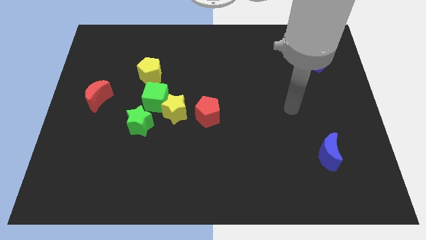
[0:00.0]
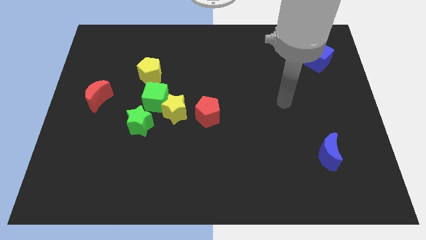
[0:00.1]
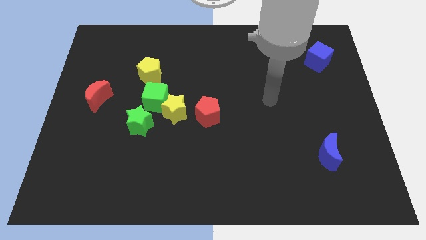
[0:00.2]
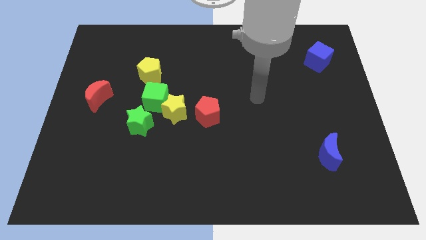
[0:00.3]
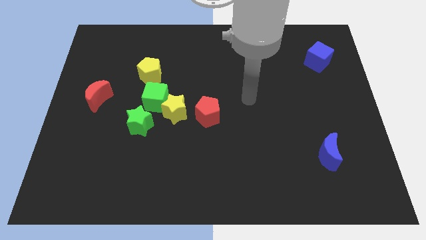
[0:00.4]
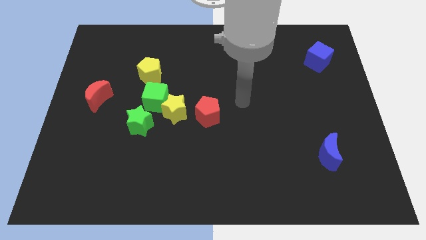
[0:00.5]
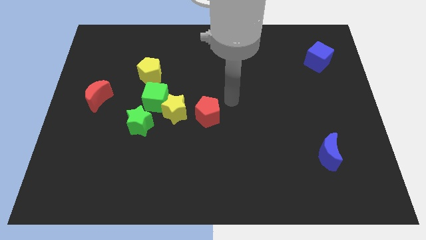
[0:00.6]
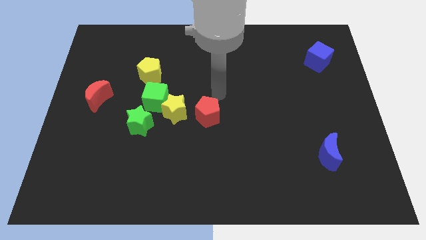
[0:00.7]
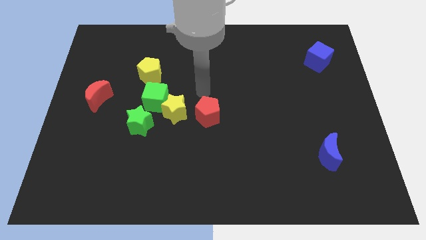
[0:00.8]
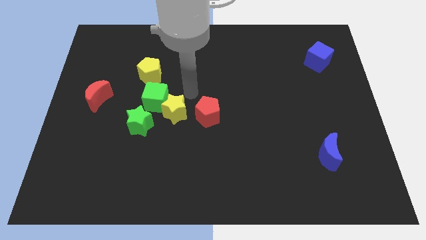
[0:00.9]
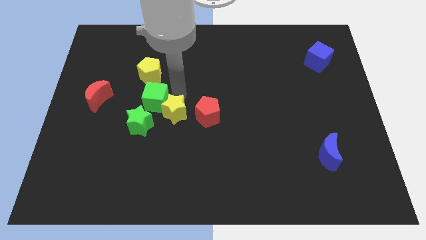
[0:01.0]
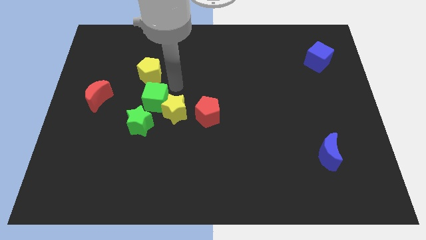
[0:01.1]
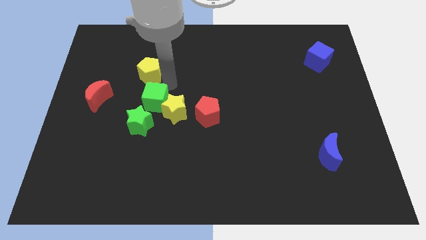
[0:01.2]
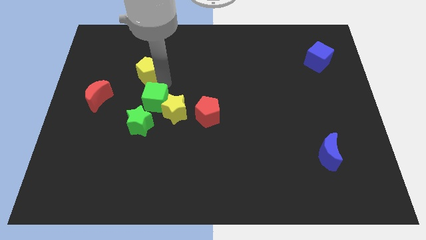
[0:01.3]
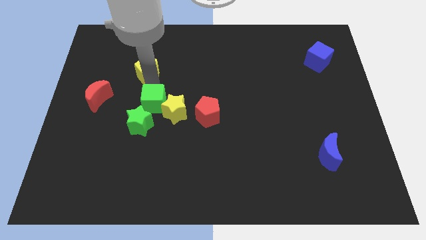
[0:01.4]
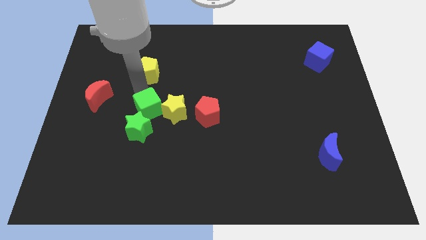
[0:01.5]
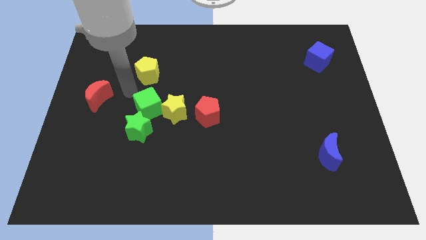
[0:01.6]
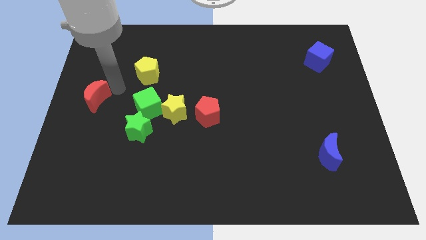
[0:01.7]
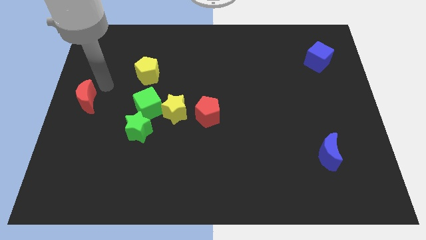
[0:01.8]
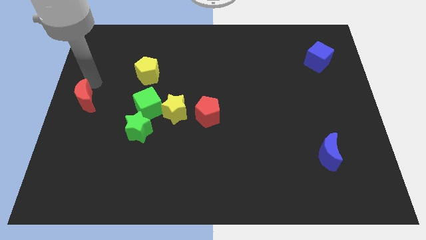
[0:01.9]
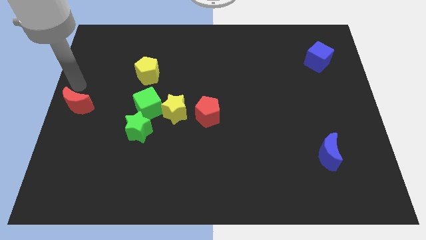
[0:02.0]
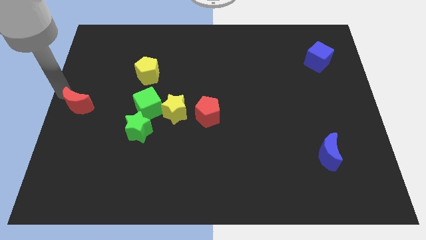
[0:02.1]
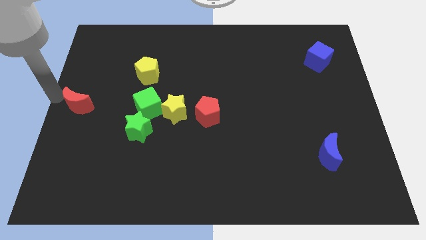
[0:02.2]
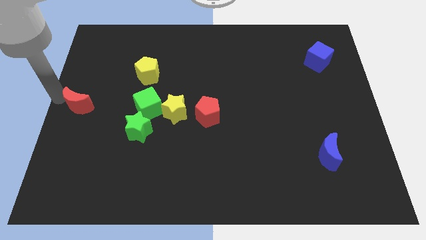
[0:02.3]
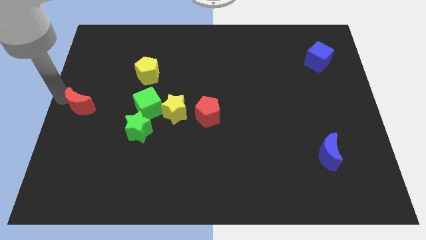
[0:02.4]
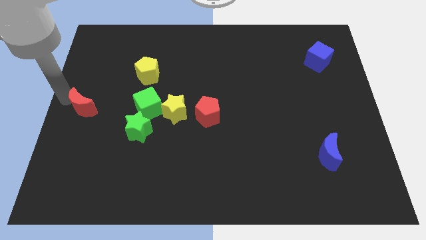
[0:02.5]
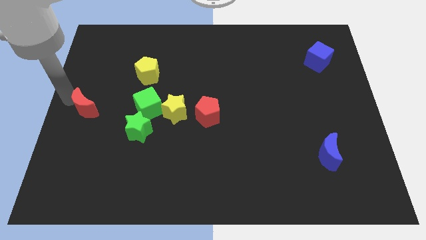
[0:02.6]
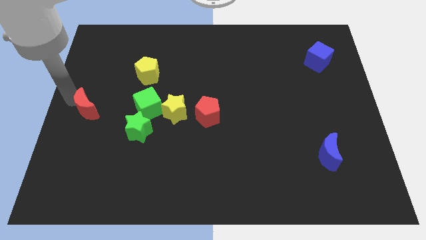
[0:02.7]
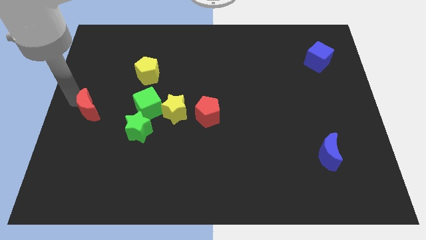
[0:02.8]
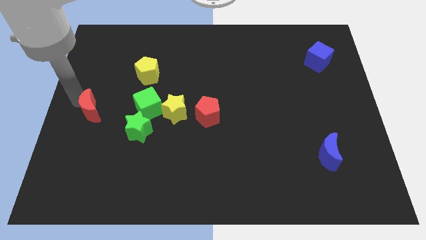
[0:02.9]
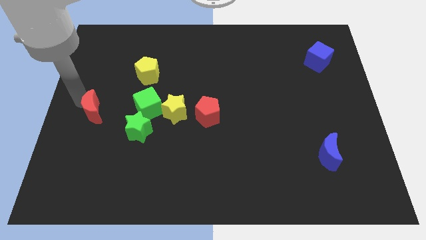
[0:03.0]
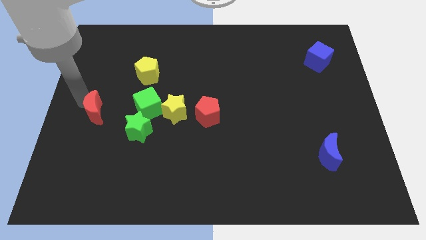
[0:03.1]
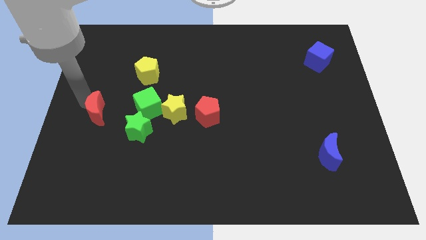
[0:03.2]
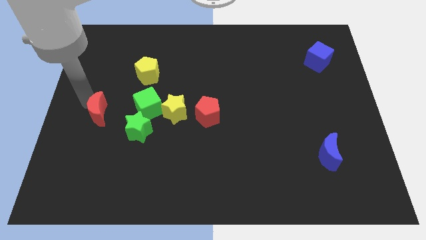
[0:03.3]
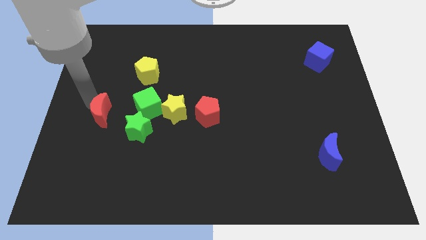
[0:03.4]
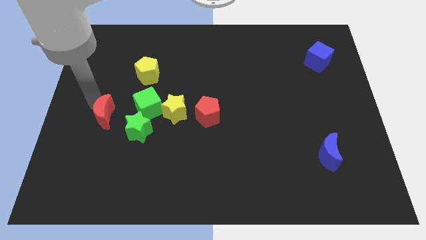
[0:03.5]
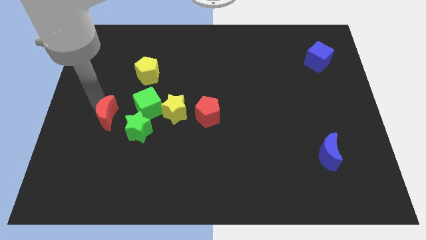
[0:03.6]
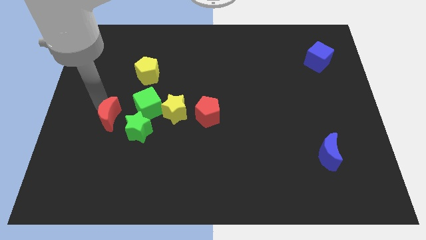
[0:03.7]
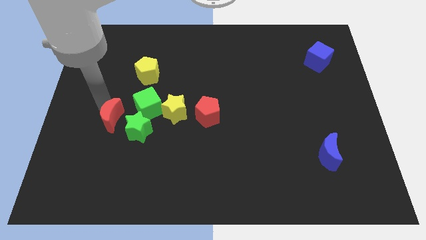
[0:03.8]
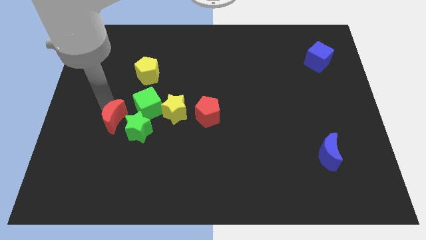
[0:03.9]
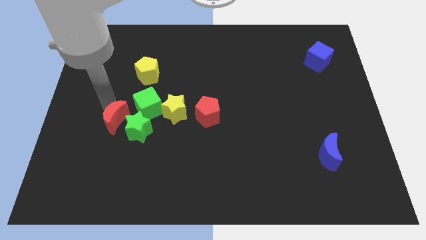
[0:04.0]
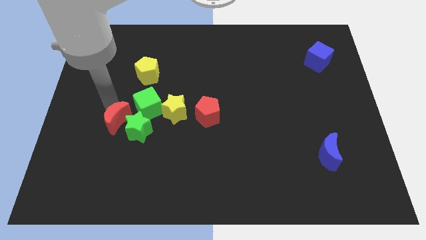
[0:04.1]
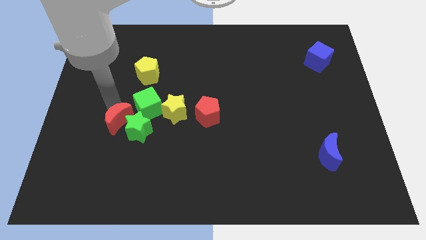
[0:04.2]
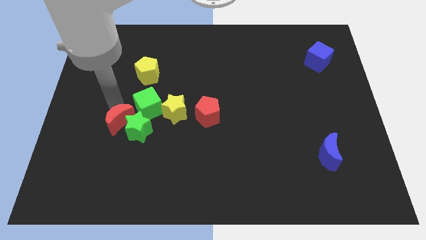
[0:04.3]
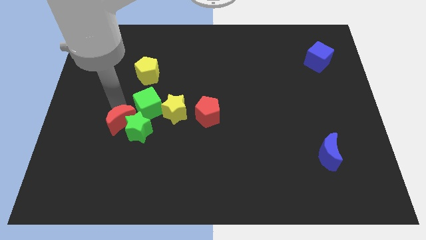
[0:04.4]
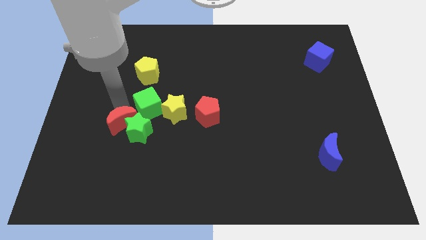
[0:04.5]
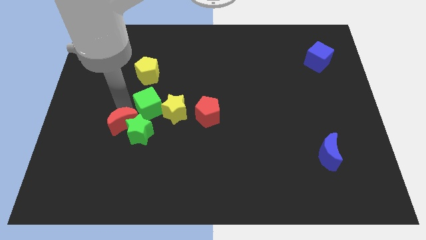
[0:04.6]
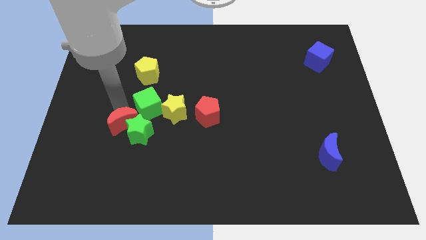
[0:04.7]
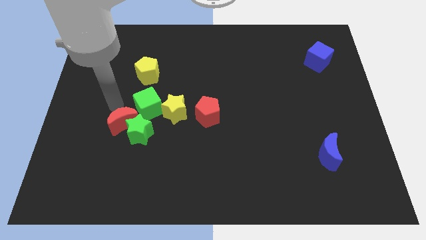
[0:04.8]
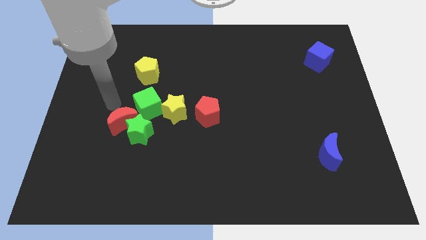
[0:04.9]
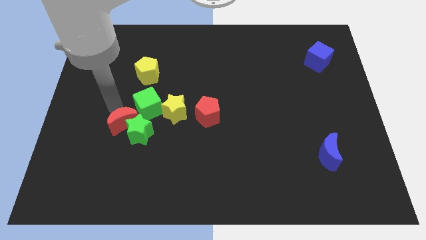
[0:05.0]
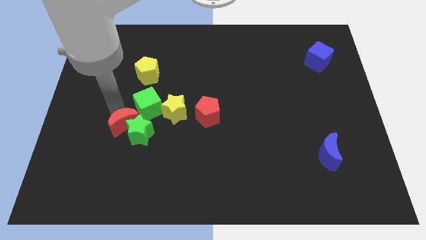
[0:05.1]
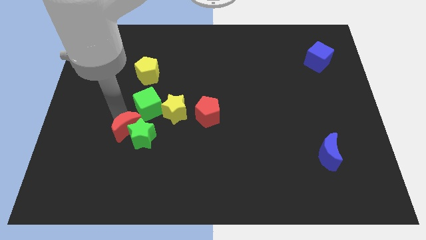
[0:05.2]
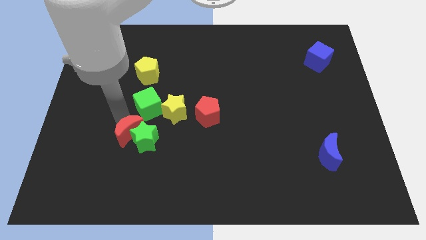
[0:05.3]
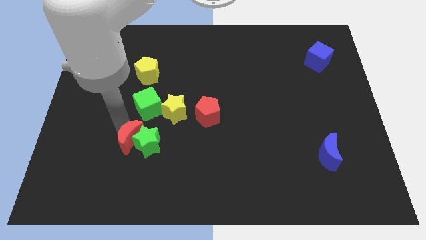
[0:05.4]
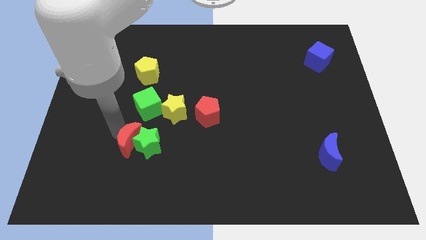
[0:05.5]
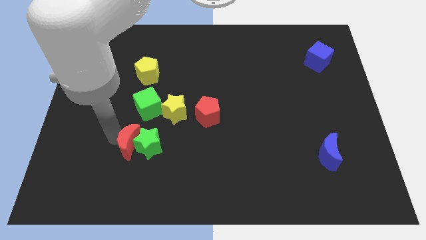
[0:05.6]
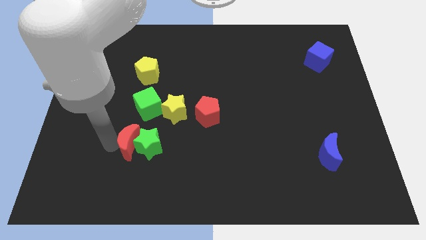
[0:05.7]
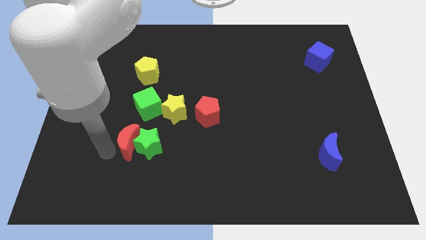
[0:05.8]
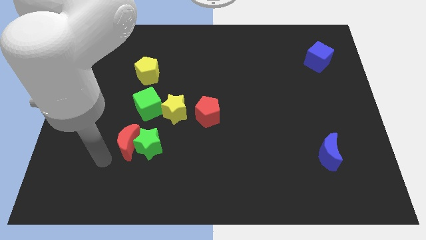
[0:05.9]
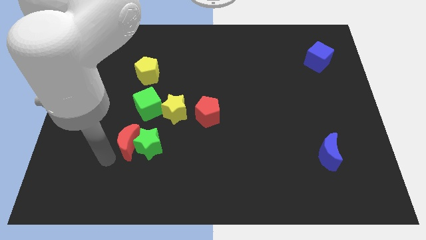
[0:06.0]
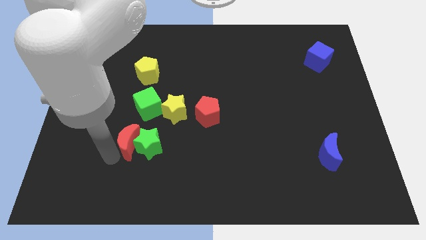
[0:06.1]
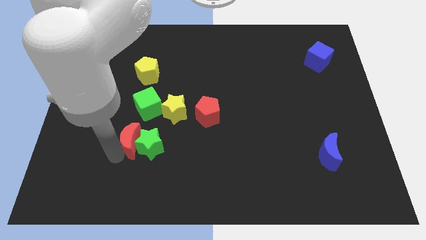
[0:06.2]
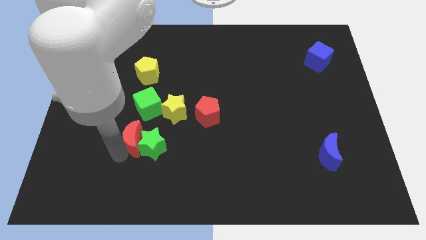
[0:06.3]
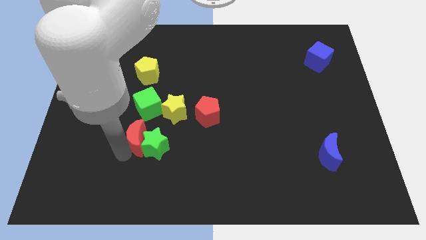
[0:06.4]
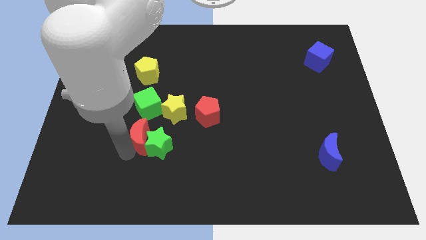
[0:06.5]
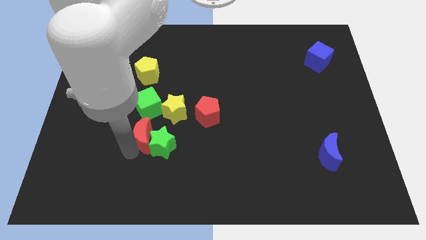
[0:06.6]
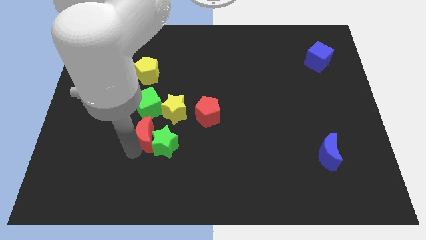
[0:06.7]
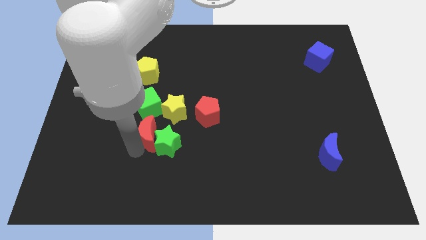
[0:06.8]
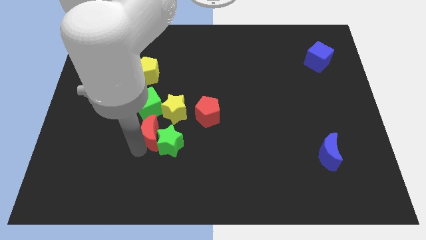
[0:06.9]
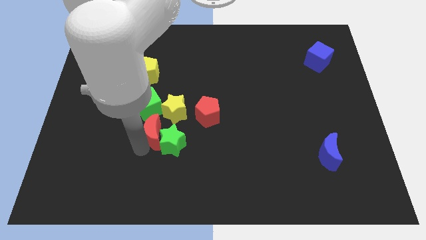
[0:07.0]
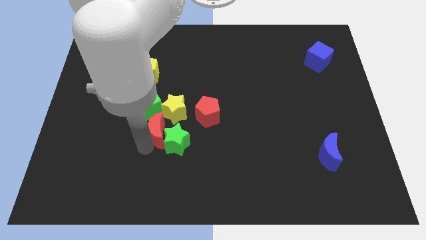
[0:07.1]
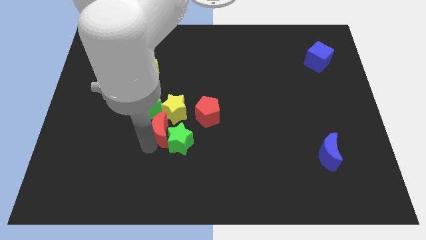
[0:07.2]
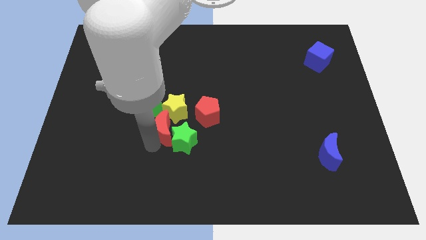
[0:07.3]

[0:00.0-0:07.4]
move the red moon next to the yellow star
